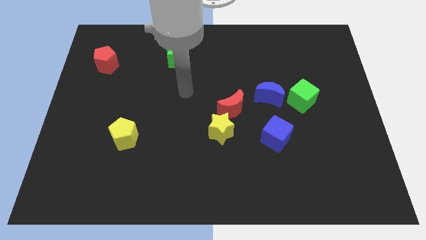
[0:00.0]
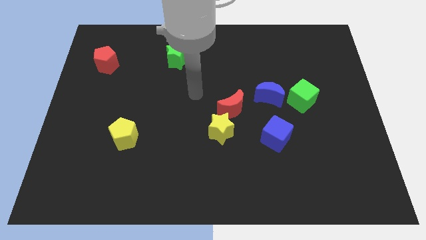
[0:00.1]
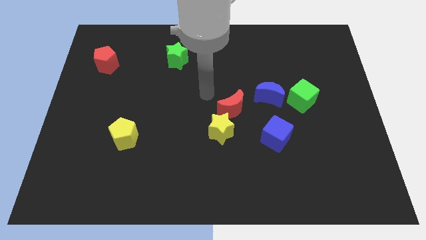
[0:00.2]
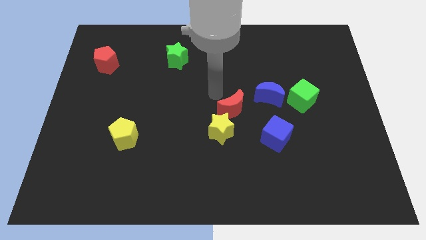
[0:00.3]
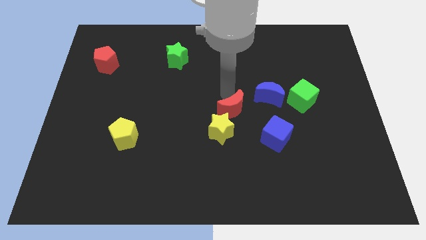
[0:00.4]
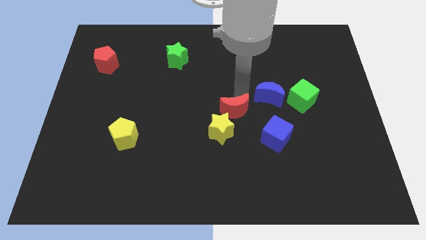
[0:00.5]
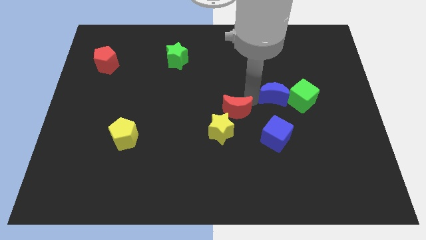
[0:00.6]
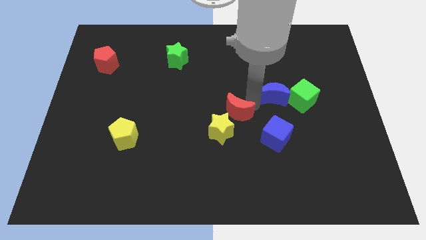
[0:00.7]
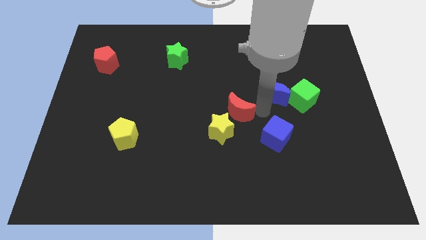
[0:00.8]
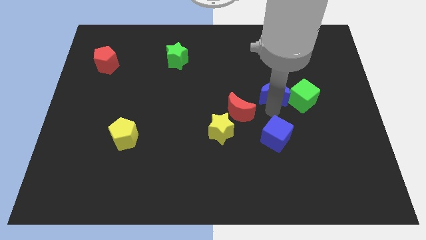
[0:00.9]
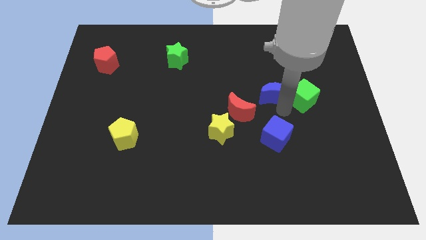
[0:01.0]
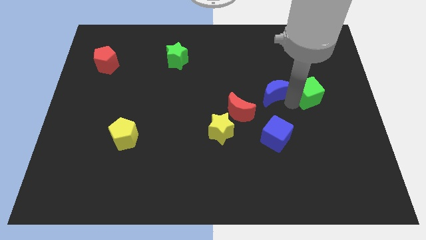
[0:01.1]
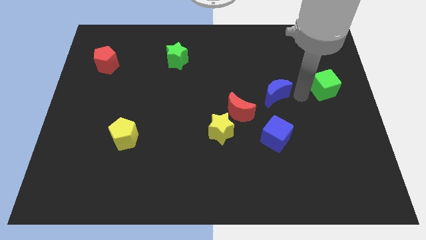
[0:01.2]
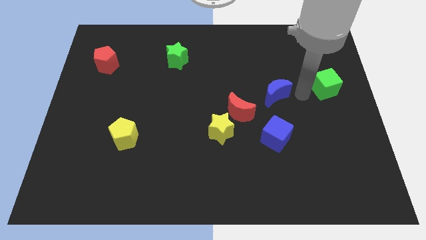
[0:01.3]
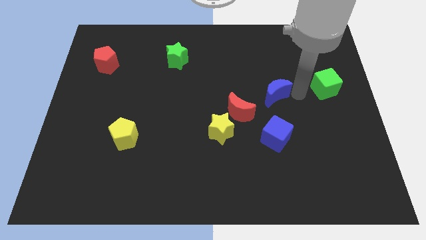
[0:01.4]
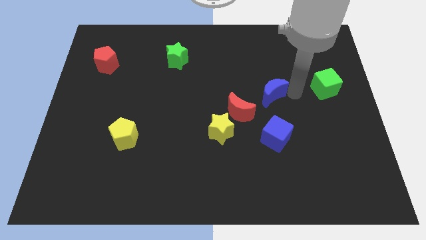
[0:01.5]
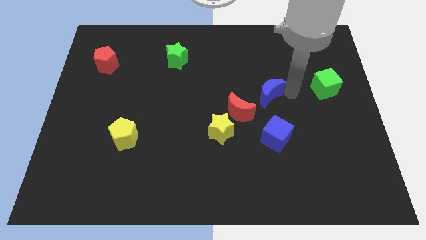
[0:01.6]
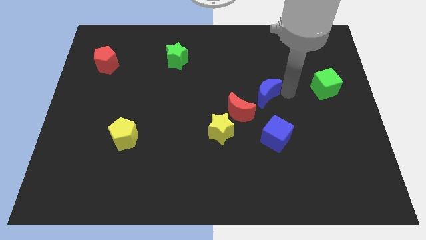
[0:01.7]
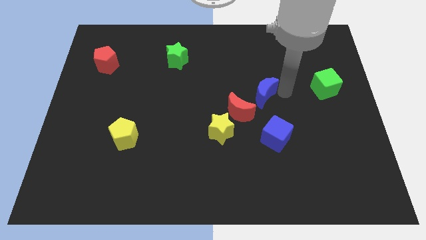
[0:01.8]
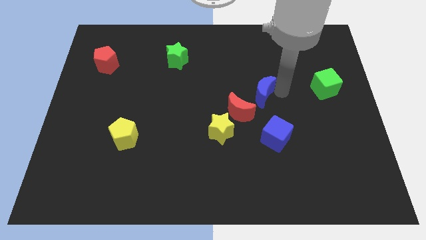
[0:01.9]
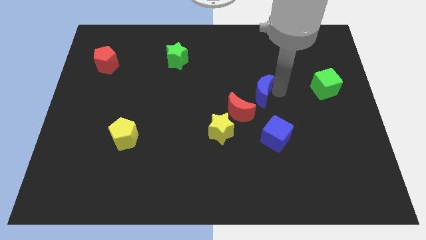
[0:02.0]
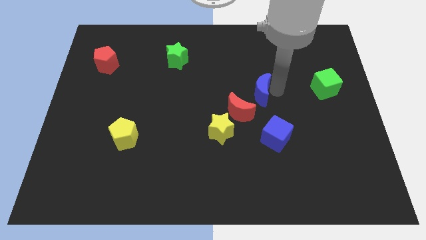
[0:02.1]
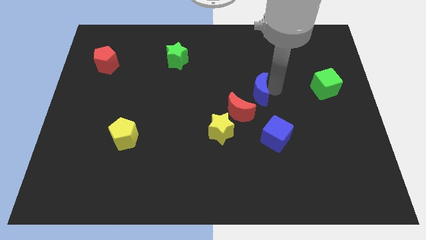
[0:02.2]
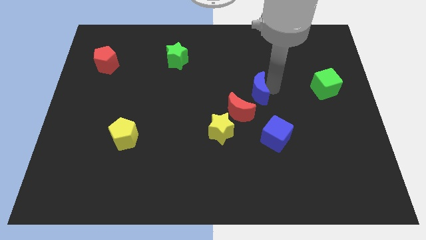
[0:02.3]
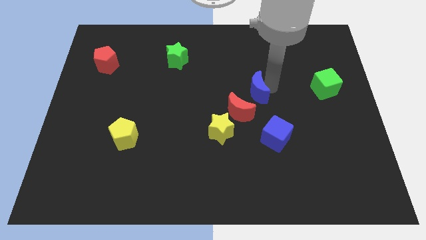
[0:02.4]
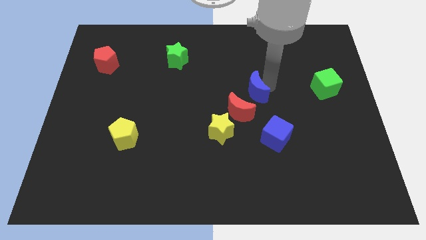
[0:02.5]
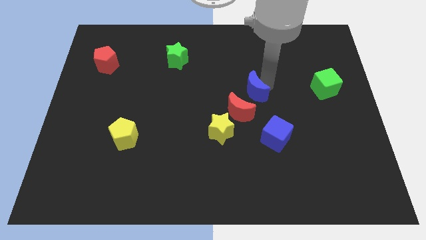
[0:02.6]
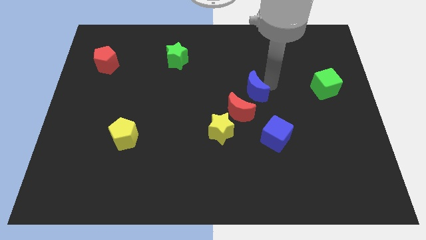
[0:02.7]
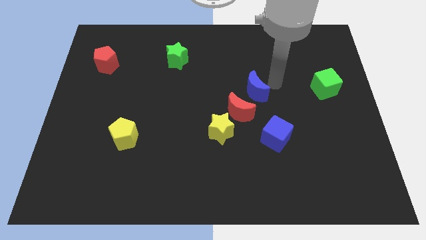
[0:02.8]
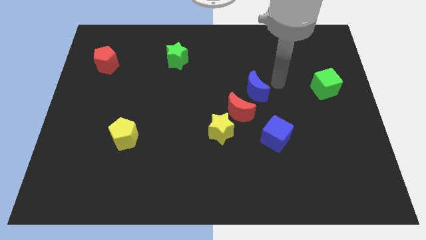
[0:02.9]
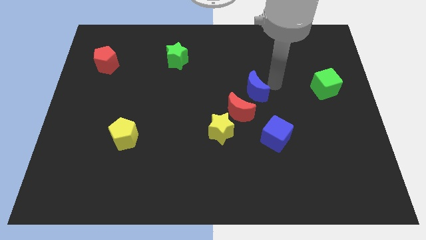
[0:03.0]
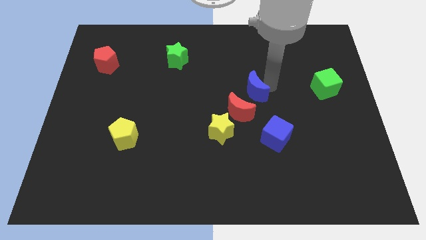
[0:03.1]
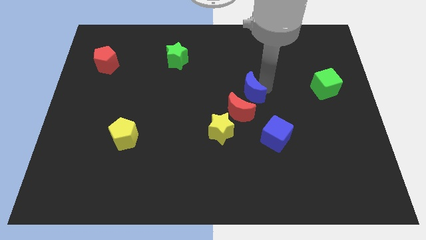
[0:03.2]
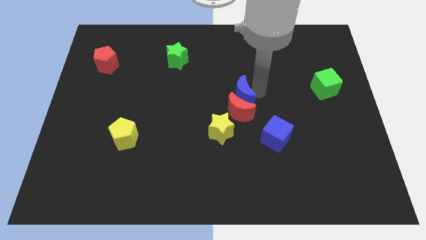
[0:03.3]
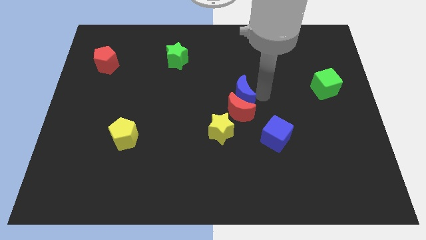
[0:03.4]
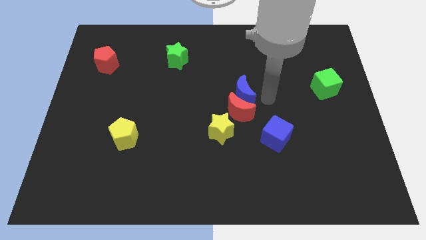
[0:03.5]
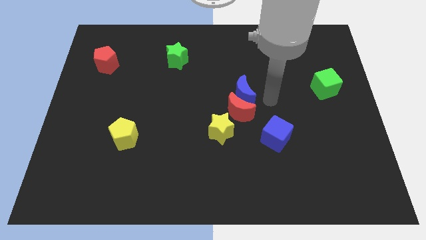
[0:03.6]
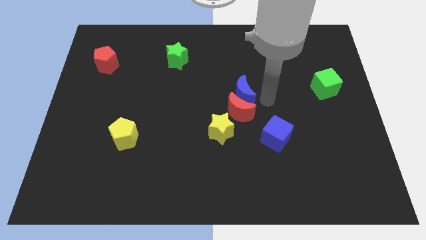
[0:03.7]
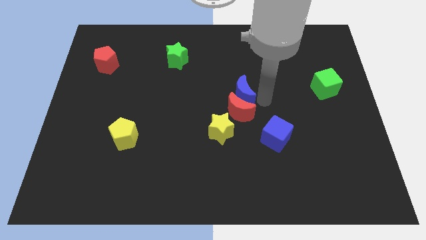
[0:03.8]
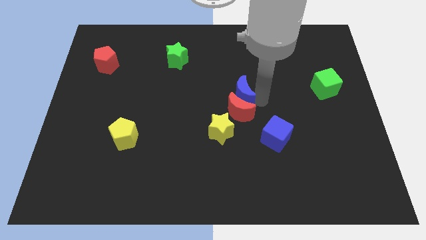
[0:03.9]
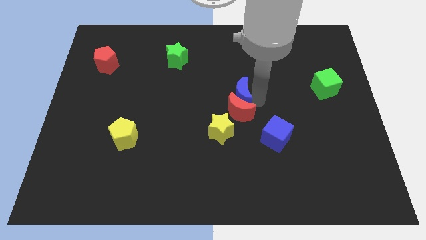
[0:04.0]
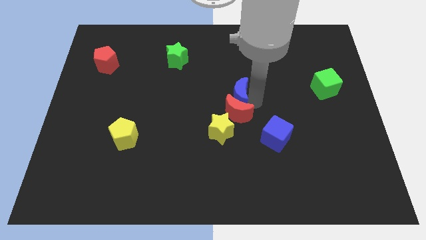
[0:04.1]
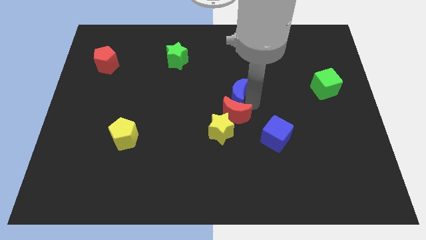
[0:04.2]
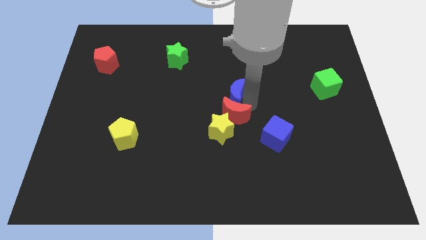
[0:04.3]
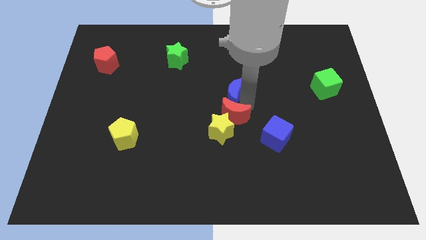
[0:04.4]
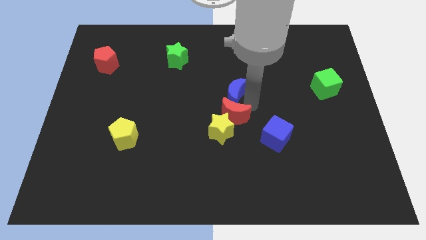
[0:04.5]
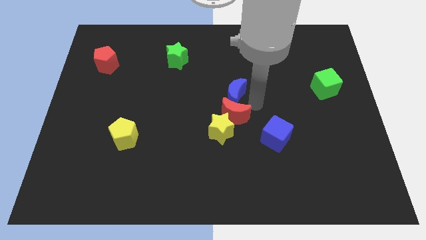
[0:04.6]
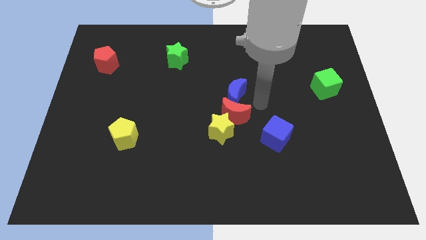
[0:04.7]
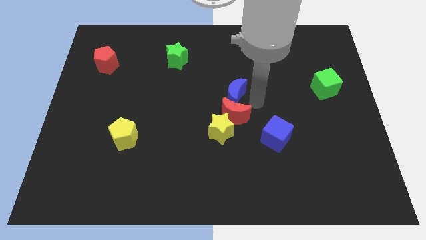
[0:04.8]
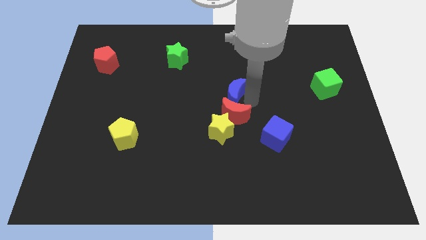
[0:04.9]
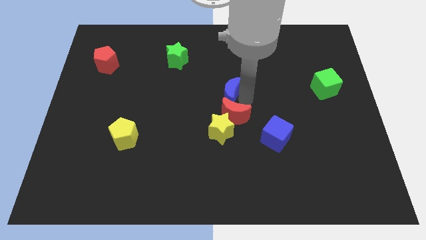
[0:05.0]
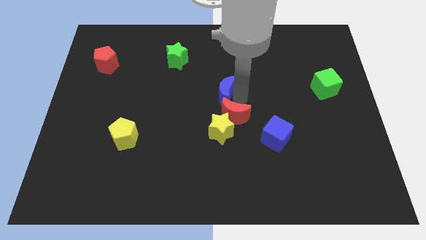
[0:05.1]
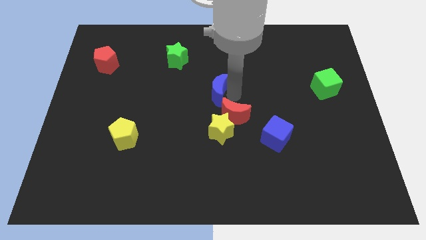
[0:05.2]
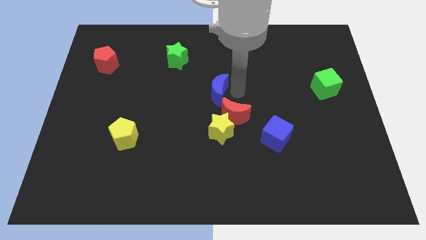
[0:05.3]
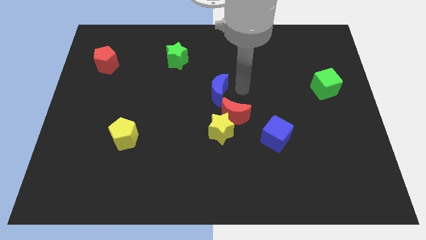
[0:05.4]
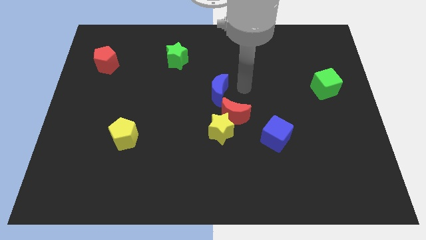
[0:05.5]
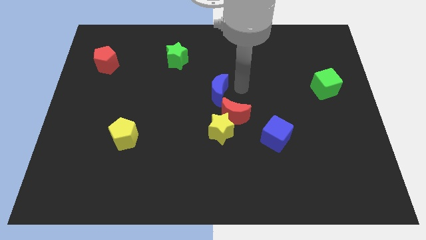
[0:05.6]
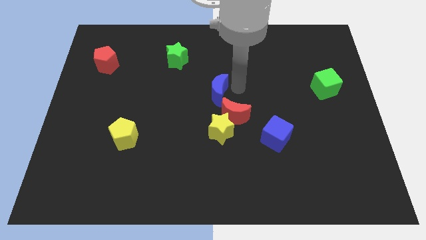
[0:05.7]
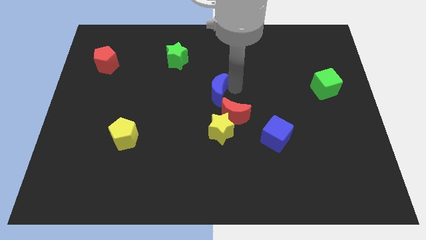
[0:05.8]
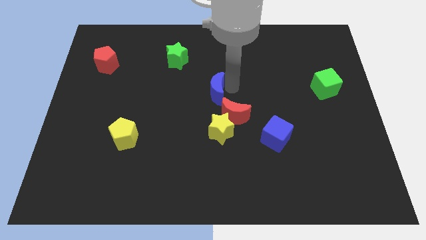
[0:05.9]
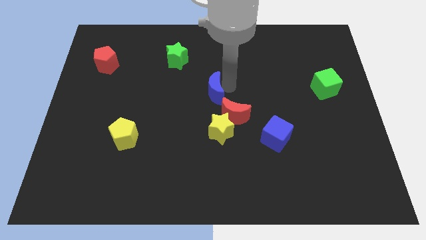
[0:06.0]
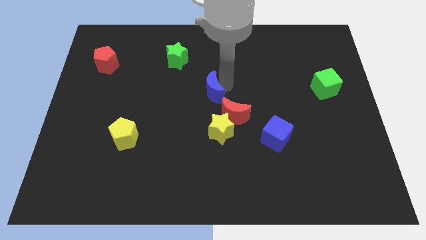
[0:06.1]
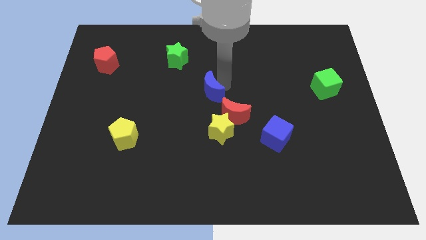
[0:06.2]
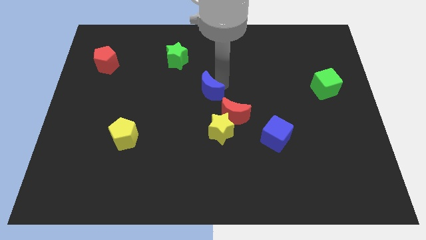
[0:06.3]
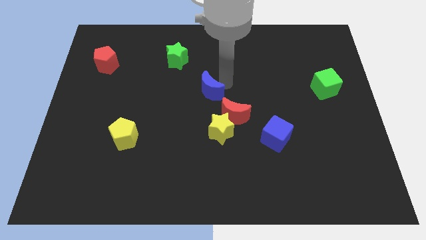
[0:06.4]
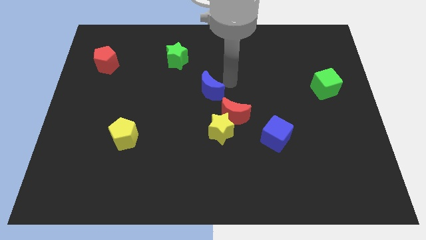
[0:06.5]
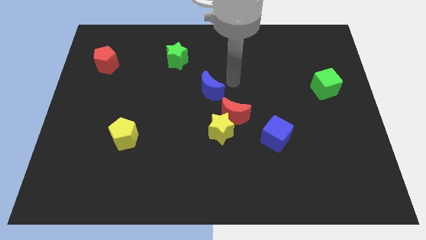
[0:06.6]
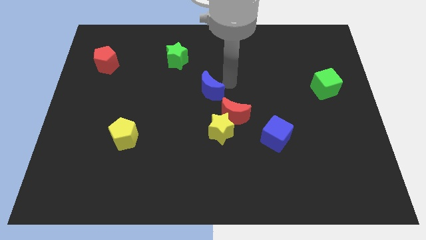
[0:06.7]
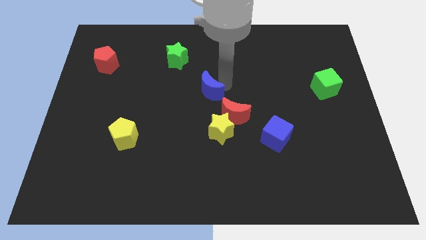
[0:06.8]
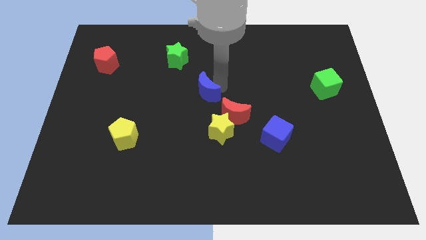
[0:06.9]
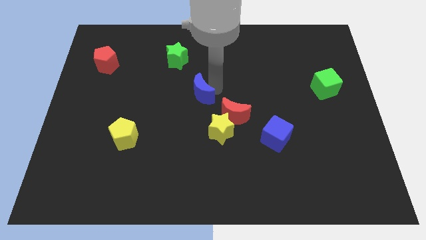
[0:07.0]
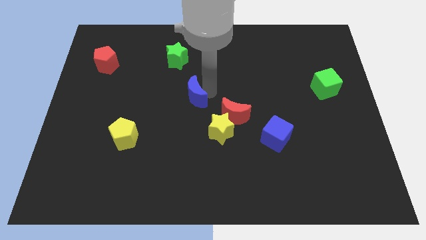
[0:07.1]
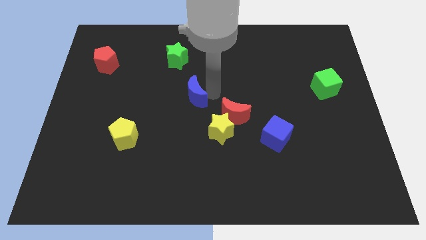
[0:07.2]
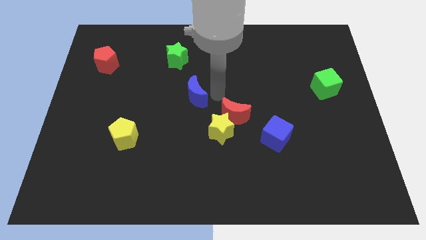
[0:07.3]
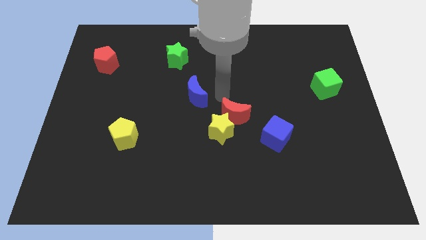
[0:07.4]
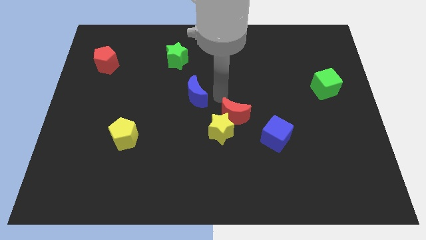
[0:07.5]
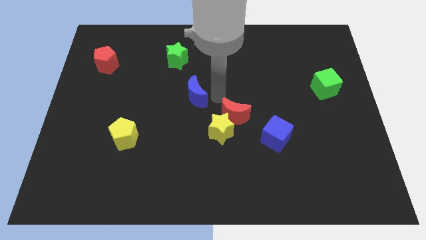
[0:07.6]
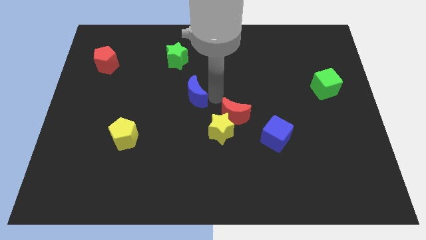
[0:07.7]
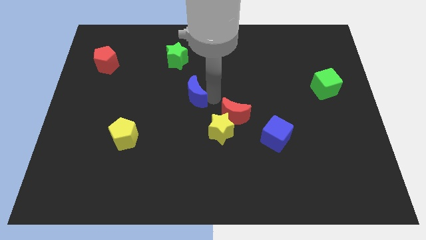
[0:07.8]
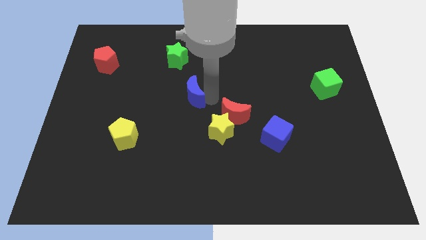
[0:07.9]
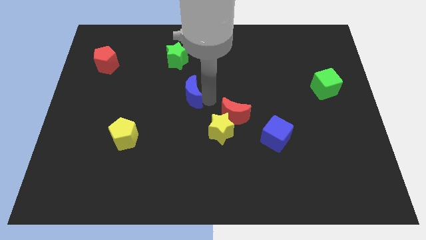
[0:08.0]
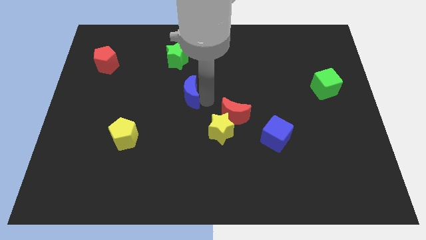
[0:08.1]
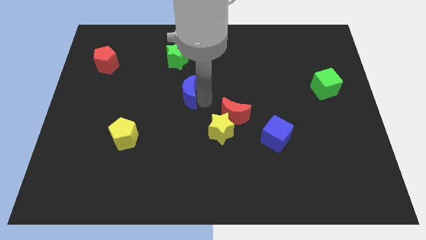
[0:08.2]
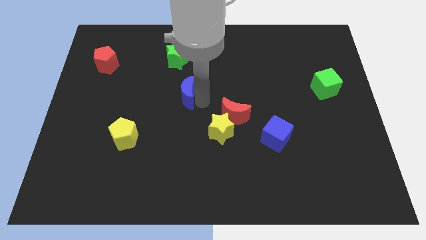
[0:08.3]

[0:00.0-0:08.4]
slide the blue moon left
